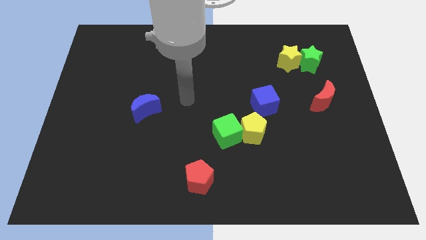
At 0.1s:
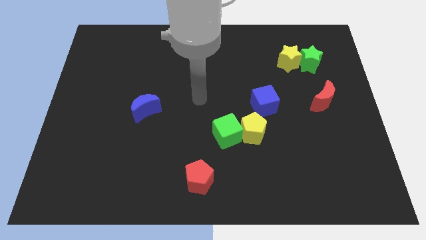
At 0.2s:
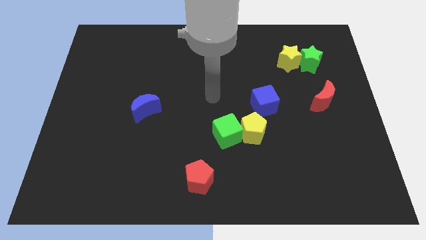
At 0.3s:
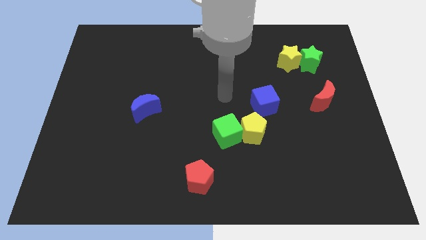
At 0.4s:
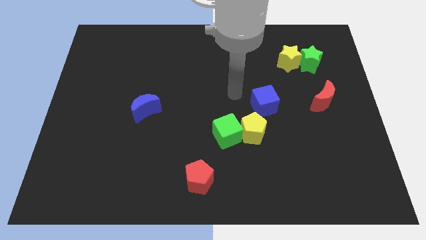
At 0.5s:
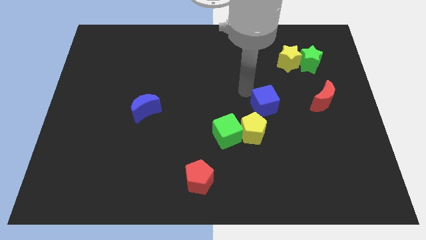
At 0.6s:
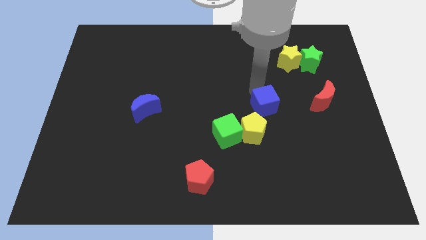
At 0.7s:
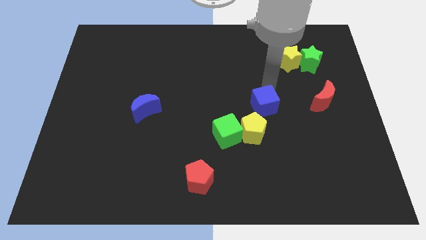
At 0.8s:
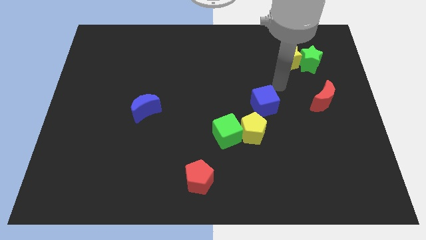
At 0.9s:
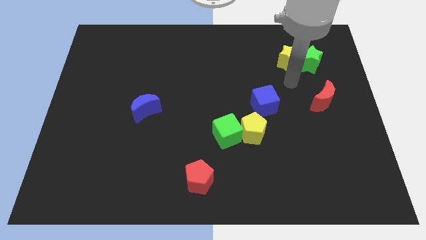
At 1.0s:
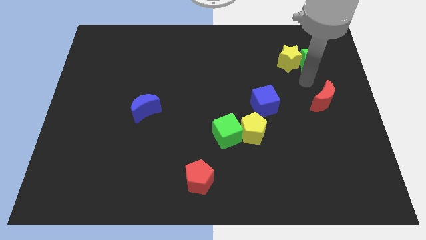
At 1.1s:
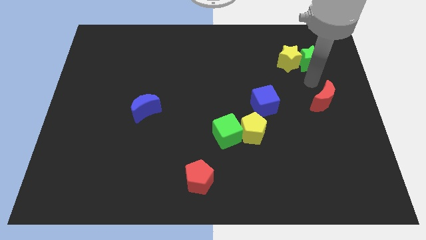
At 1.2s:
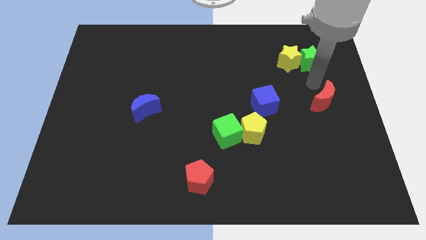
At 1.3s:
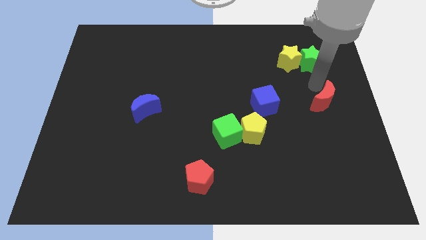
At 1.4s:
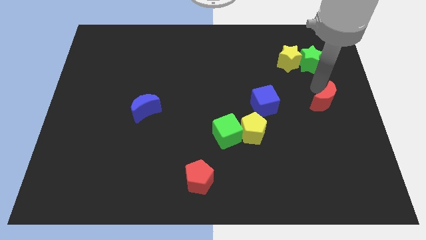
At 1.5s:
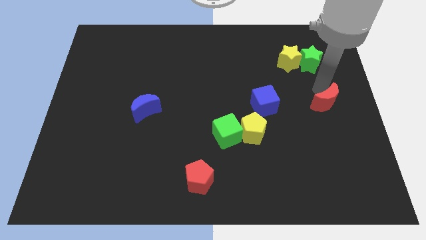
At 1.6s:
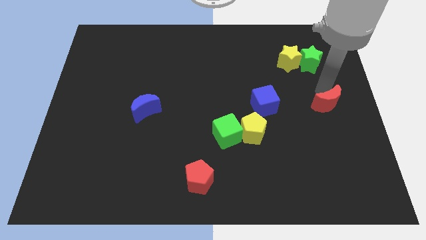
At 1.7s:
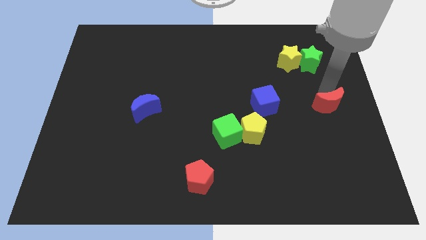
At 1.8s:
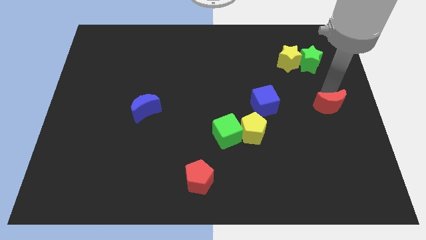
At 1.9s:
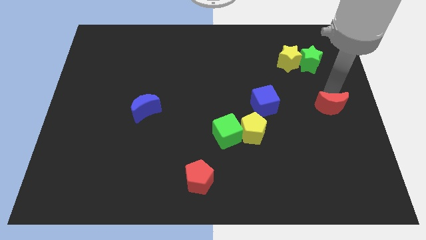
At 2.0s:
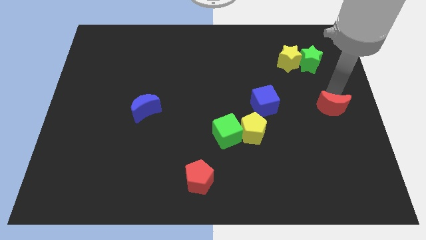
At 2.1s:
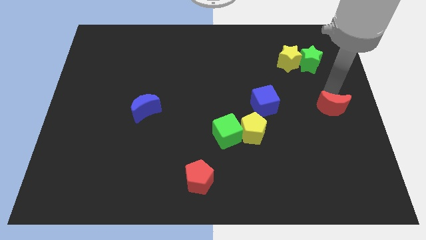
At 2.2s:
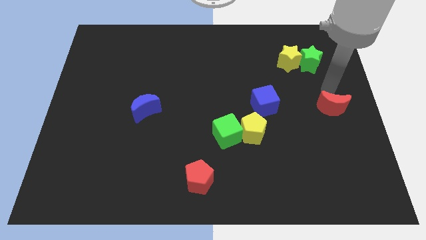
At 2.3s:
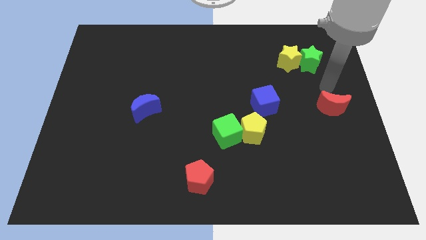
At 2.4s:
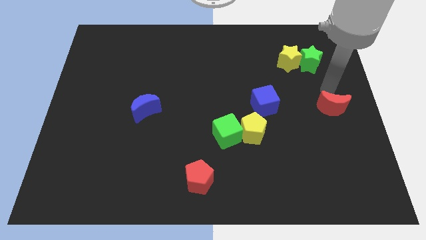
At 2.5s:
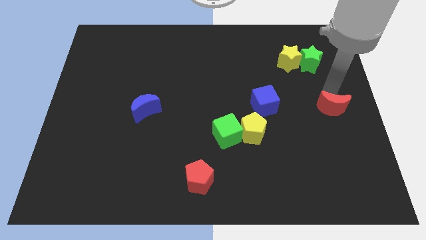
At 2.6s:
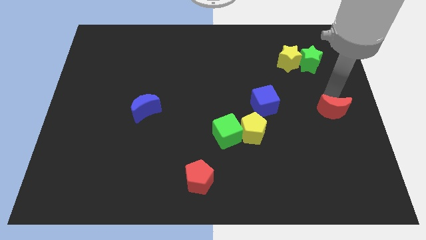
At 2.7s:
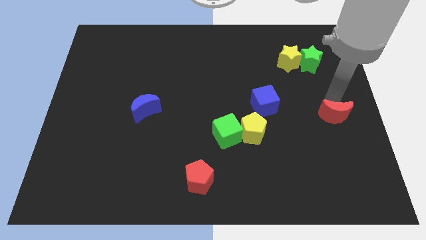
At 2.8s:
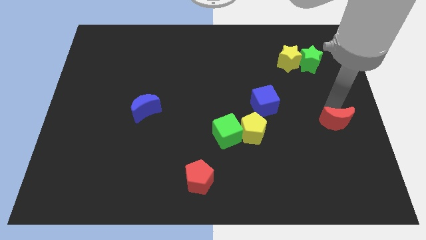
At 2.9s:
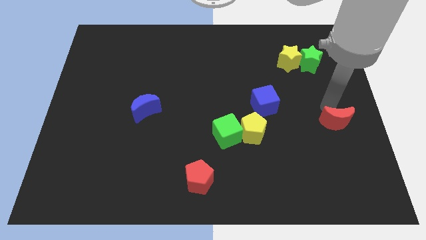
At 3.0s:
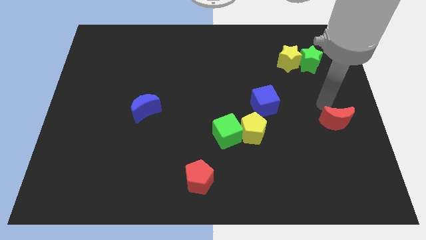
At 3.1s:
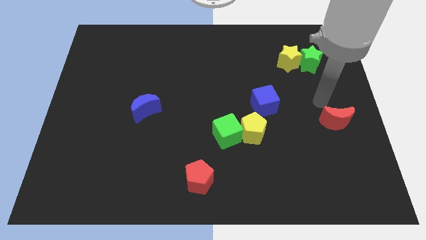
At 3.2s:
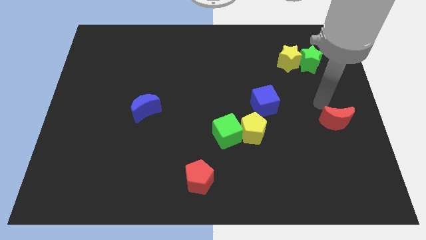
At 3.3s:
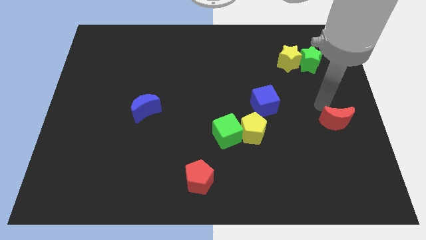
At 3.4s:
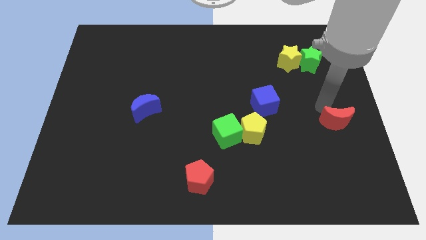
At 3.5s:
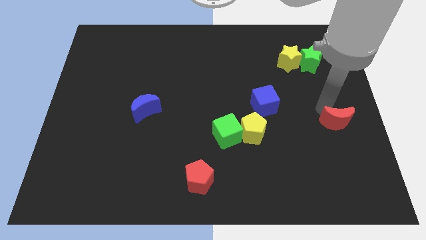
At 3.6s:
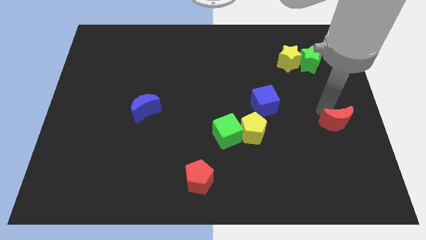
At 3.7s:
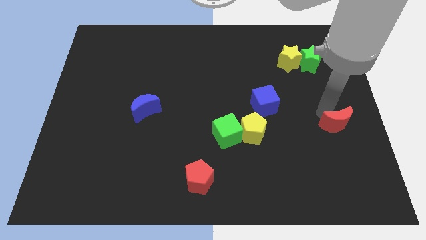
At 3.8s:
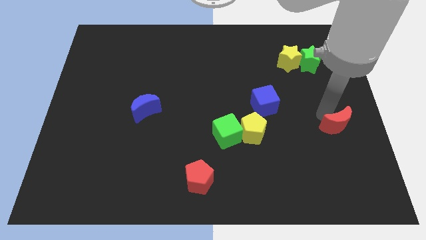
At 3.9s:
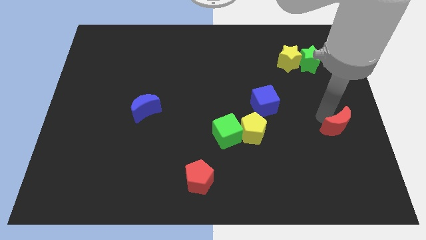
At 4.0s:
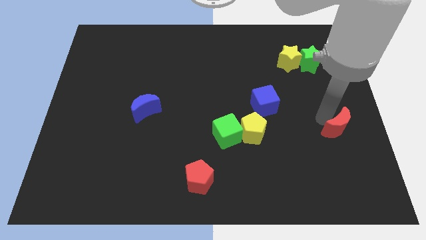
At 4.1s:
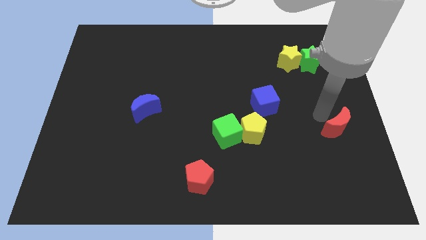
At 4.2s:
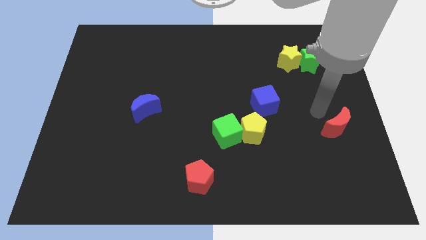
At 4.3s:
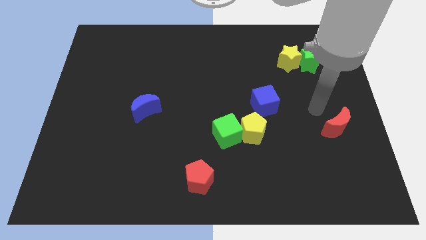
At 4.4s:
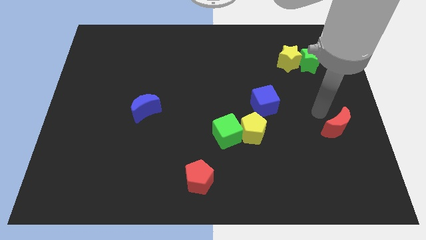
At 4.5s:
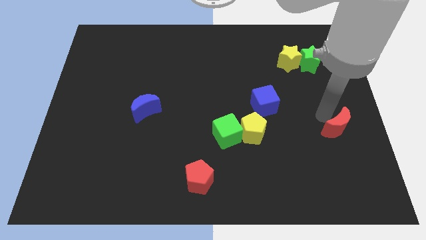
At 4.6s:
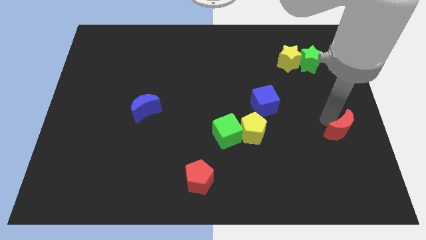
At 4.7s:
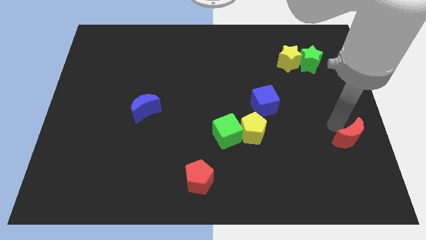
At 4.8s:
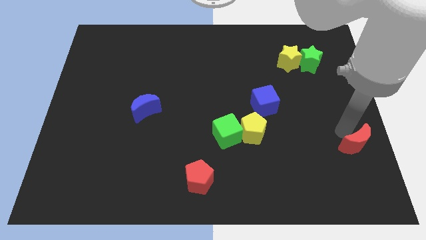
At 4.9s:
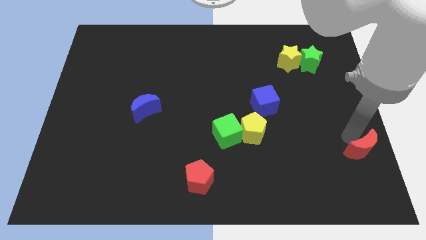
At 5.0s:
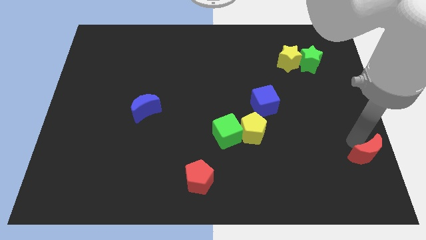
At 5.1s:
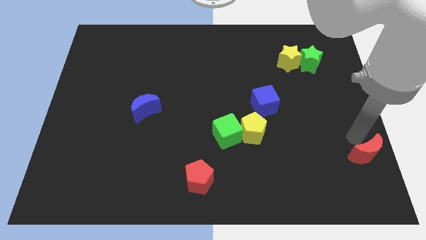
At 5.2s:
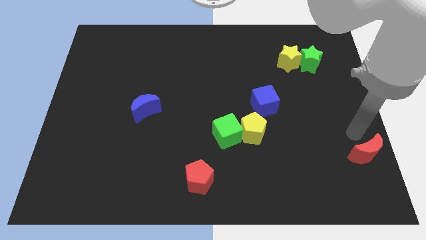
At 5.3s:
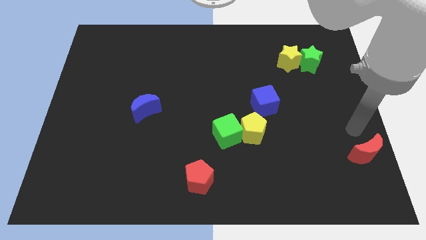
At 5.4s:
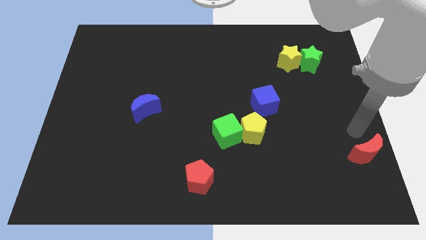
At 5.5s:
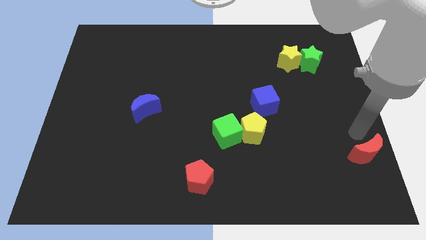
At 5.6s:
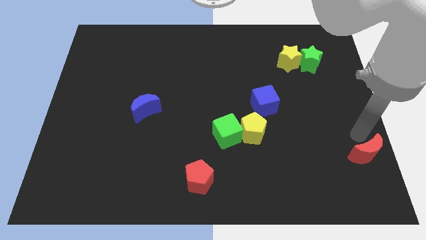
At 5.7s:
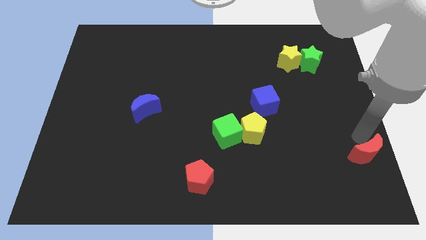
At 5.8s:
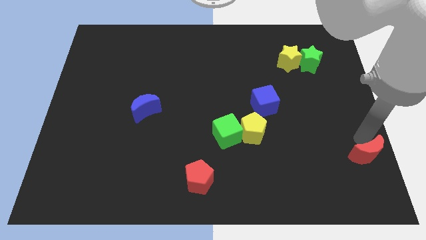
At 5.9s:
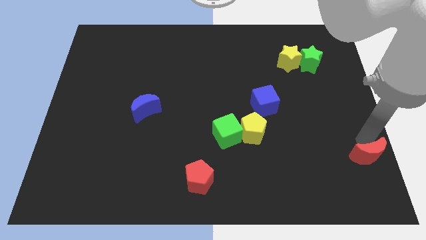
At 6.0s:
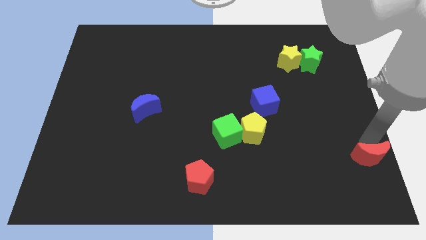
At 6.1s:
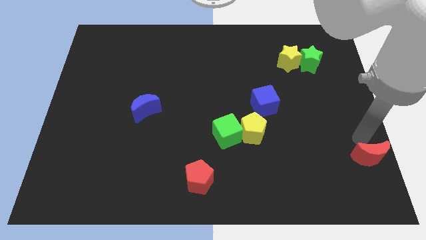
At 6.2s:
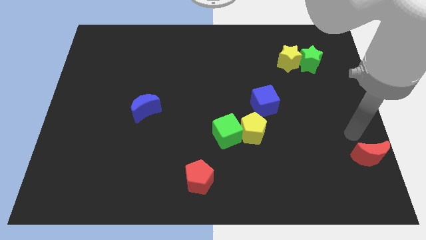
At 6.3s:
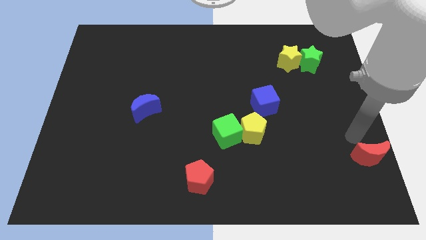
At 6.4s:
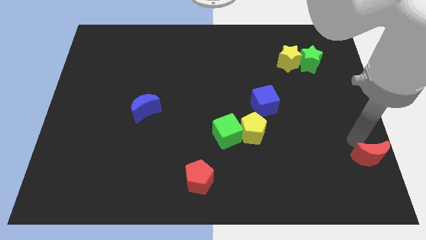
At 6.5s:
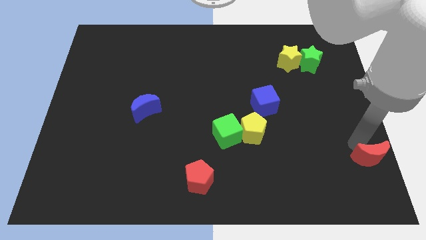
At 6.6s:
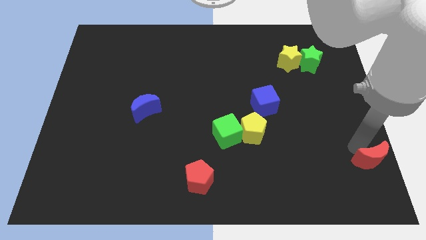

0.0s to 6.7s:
slide the red moon to the bottom right
